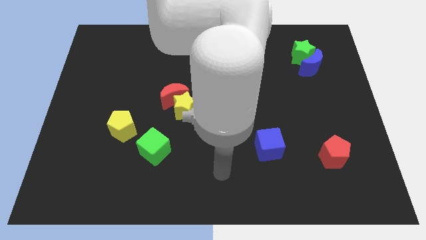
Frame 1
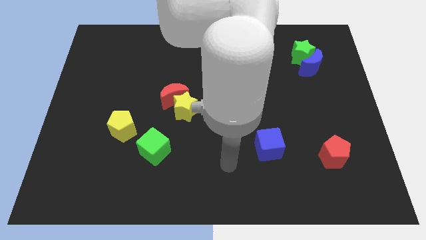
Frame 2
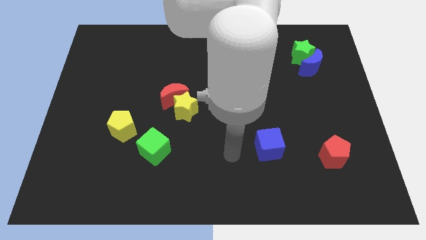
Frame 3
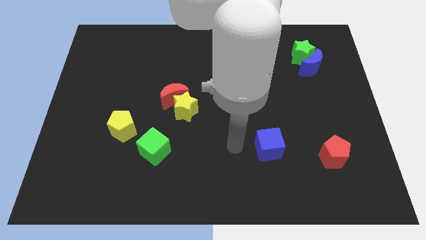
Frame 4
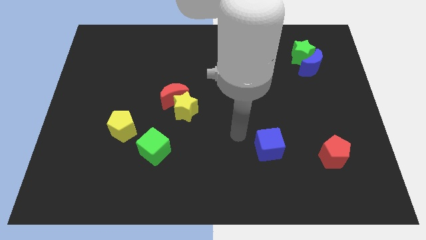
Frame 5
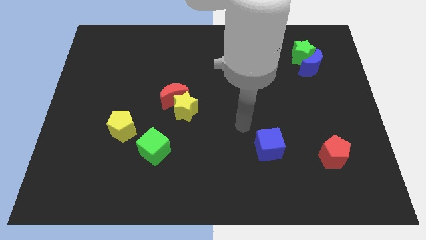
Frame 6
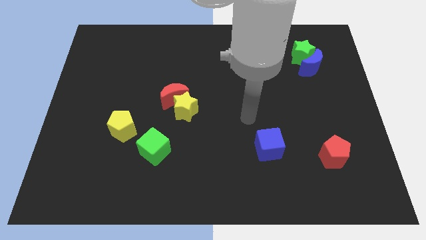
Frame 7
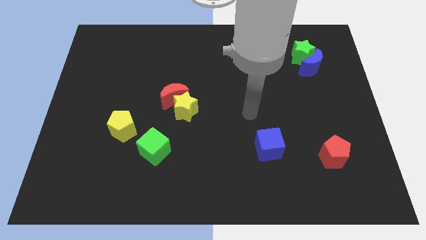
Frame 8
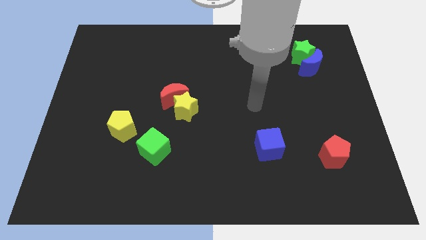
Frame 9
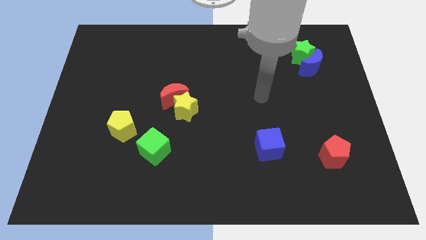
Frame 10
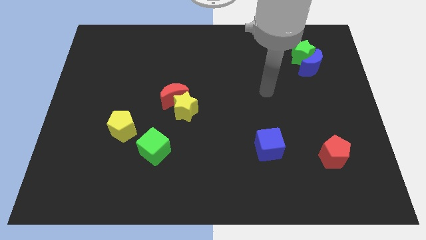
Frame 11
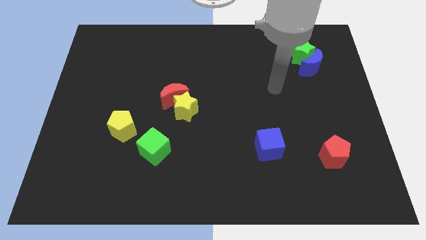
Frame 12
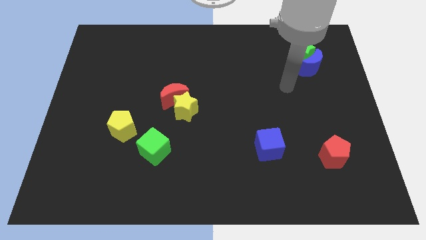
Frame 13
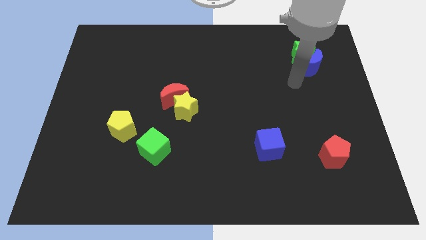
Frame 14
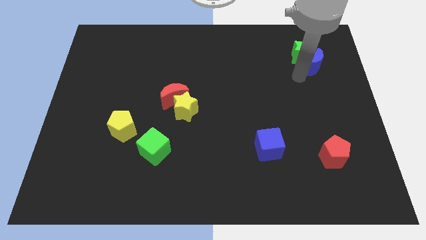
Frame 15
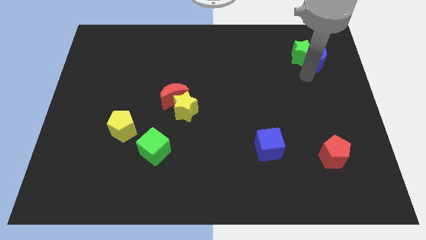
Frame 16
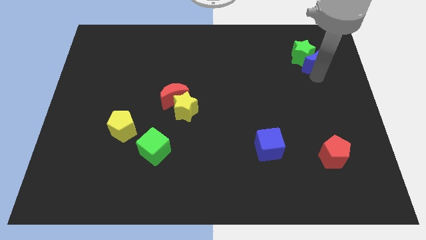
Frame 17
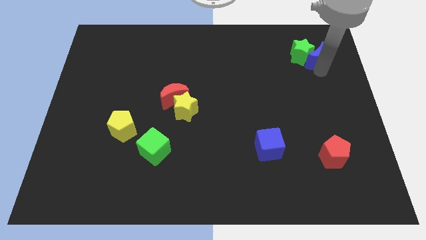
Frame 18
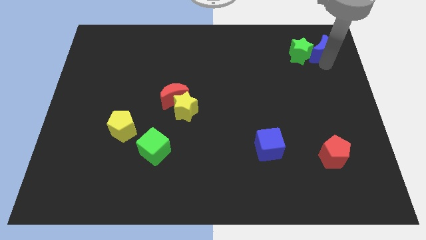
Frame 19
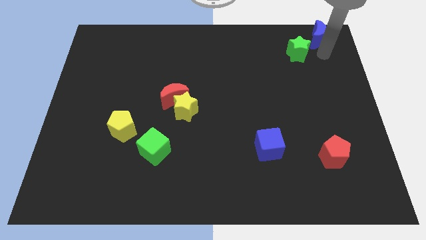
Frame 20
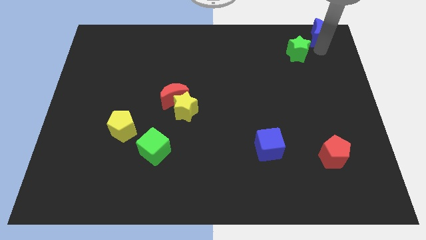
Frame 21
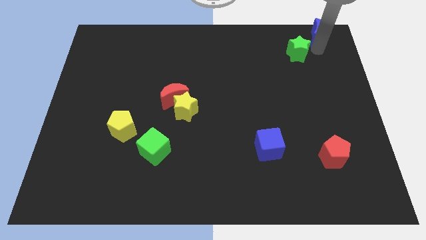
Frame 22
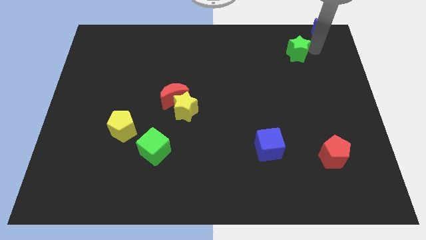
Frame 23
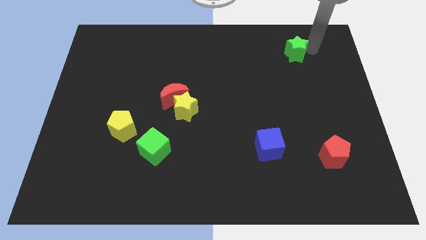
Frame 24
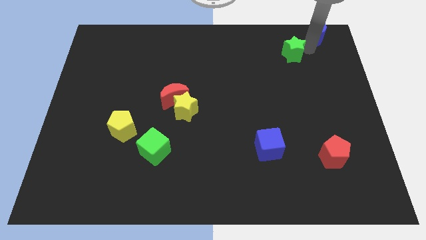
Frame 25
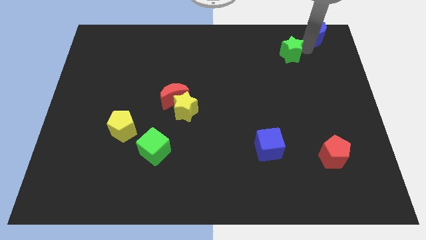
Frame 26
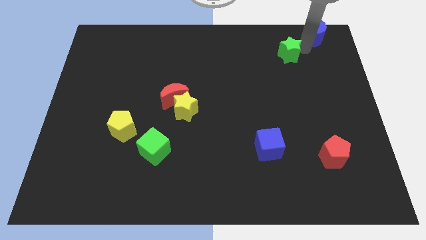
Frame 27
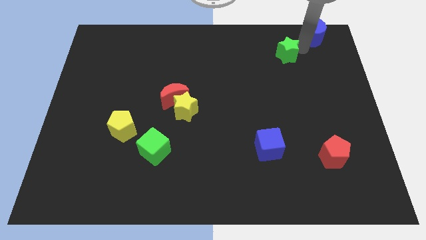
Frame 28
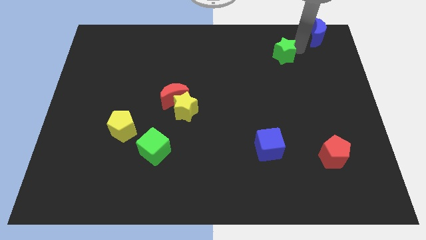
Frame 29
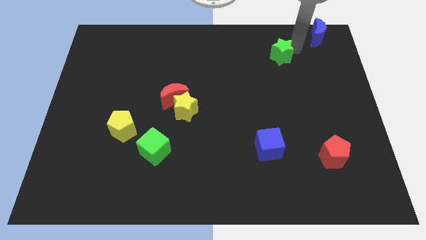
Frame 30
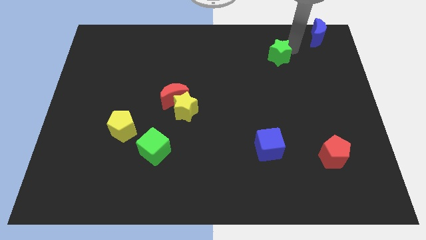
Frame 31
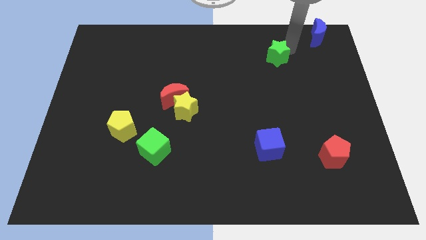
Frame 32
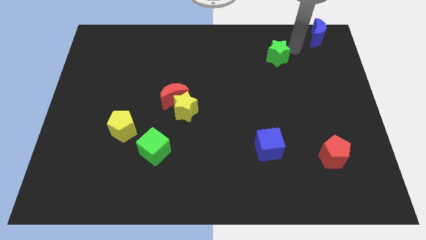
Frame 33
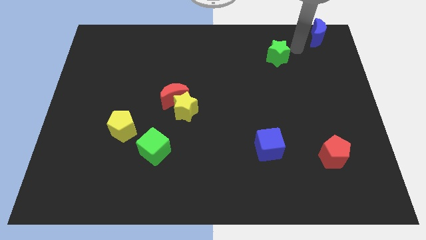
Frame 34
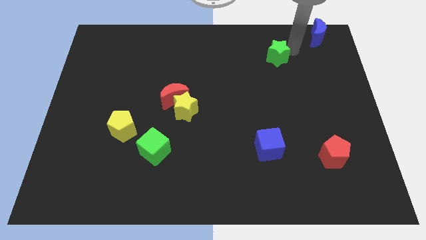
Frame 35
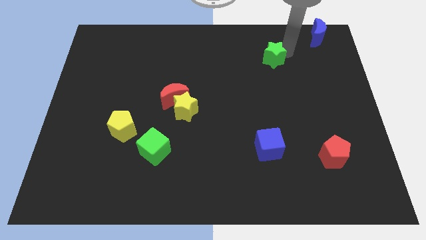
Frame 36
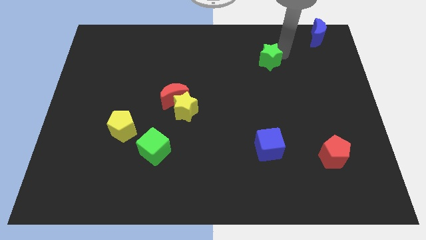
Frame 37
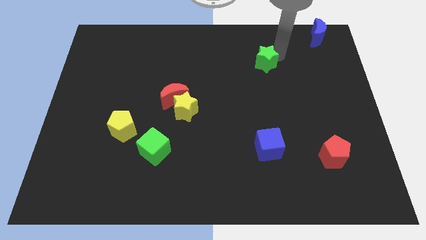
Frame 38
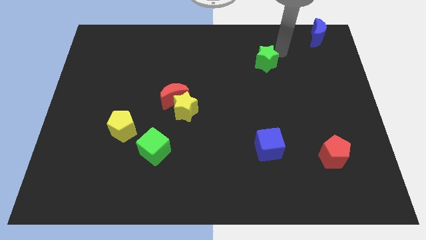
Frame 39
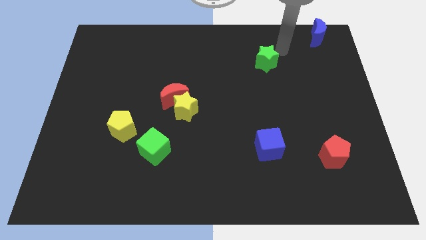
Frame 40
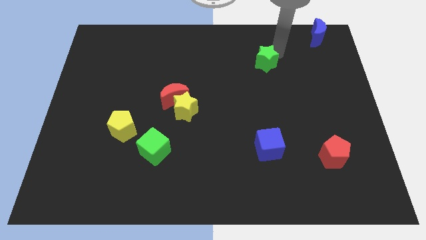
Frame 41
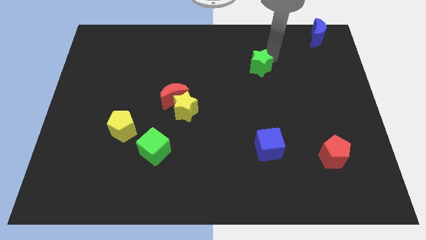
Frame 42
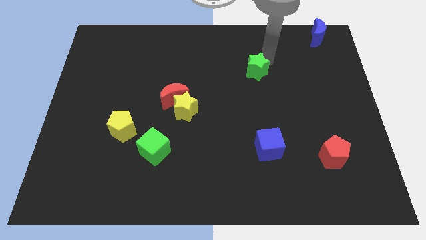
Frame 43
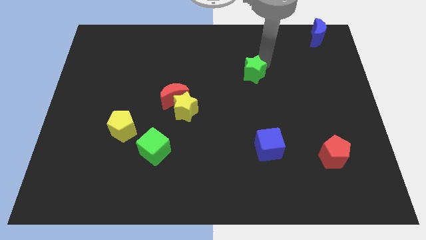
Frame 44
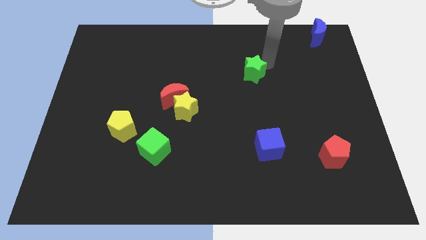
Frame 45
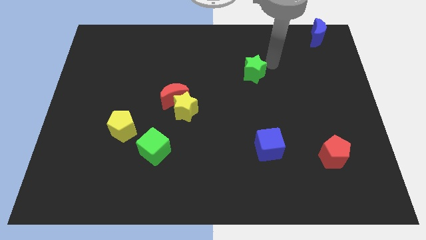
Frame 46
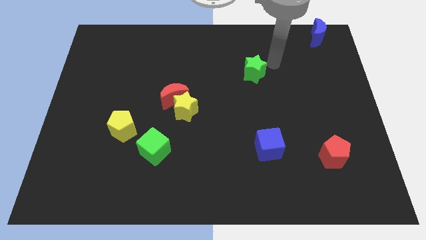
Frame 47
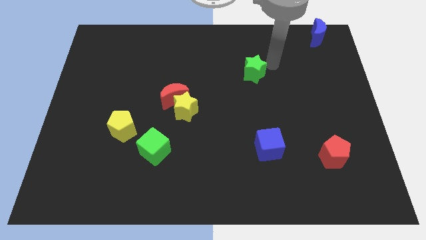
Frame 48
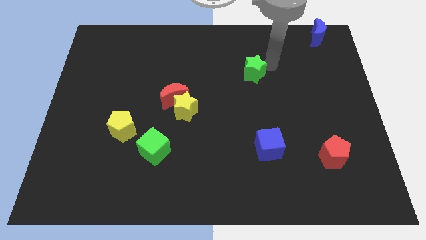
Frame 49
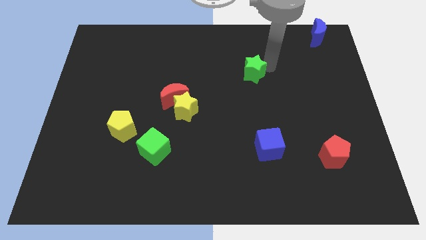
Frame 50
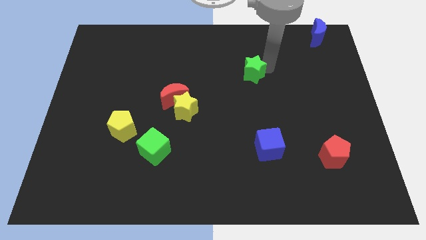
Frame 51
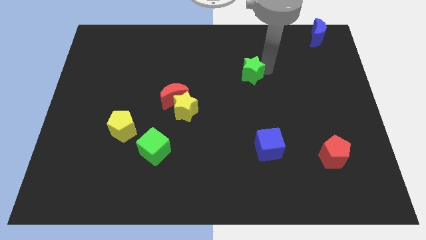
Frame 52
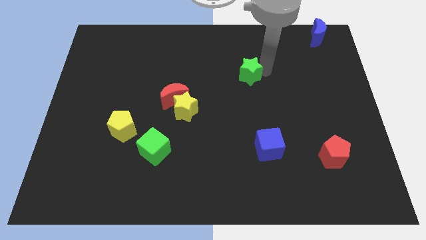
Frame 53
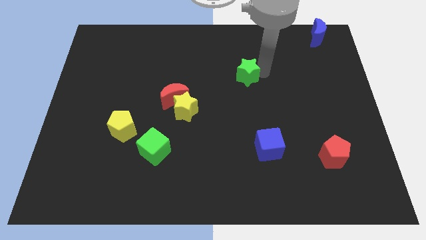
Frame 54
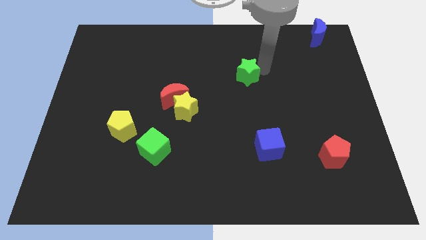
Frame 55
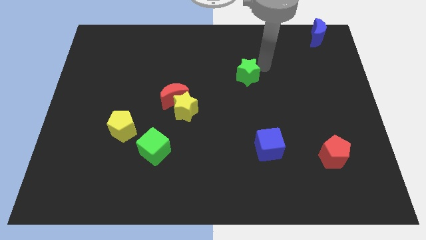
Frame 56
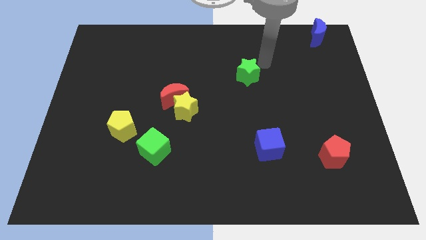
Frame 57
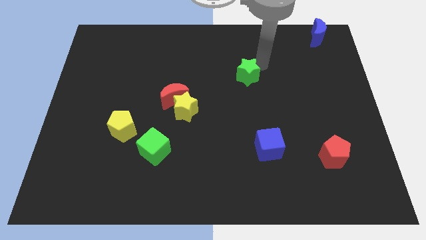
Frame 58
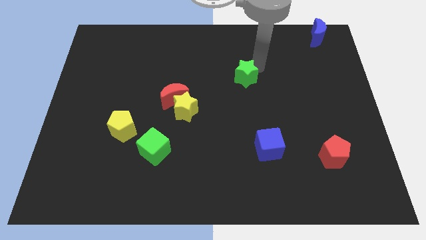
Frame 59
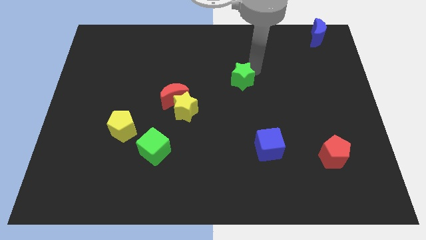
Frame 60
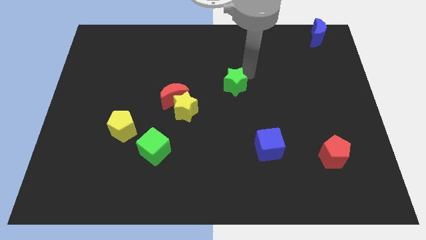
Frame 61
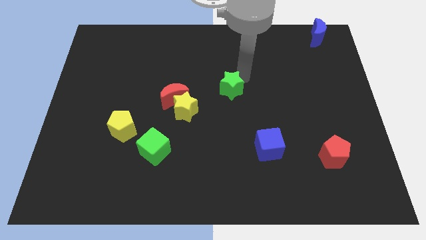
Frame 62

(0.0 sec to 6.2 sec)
slide the green star just right of the red moon
